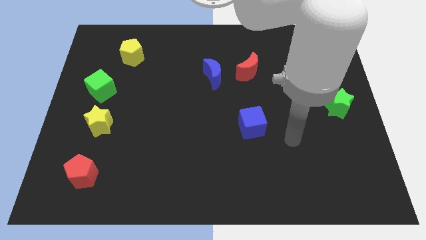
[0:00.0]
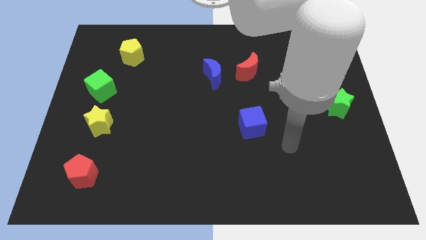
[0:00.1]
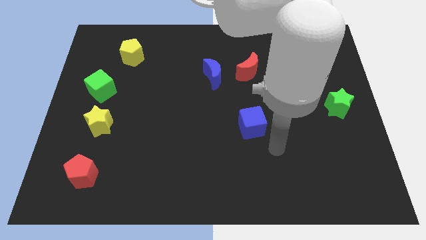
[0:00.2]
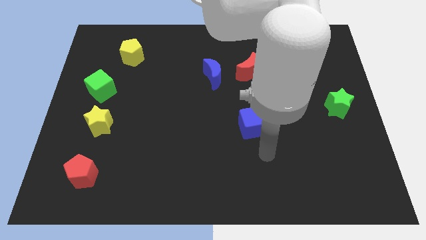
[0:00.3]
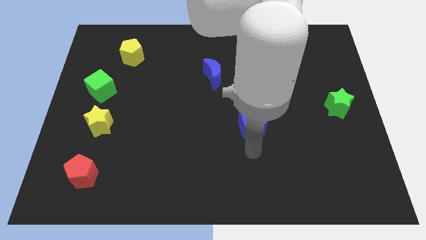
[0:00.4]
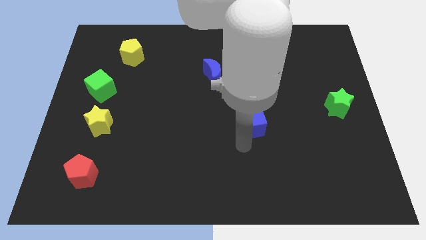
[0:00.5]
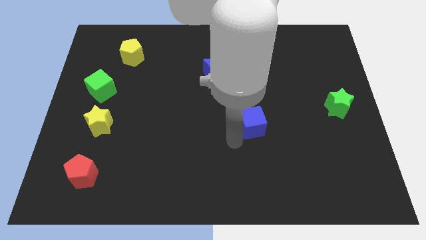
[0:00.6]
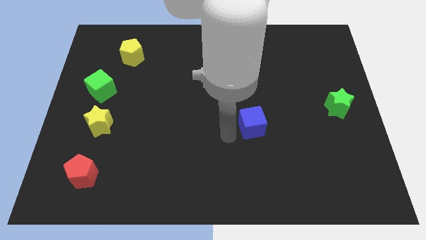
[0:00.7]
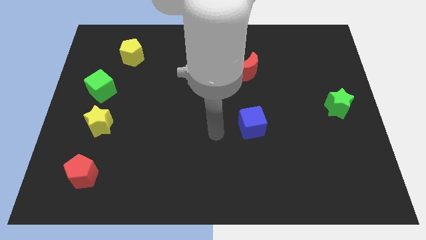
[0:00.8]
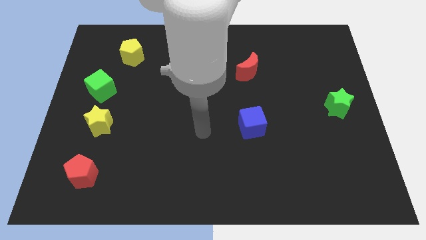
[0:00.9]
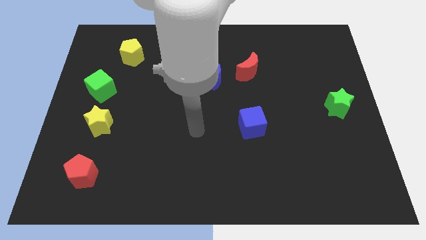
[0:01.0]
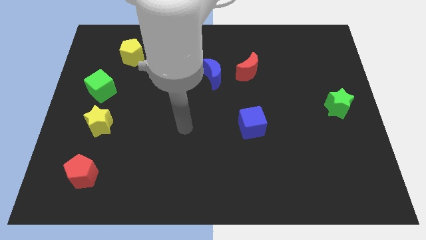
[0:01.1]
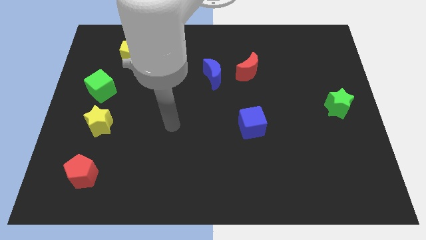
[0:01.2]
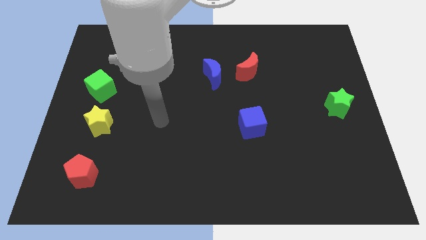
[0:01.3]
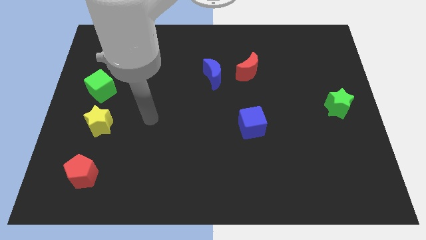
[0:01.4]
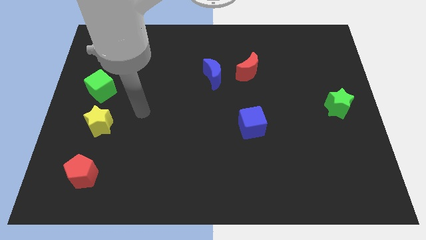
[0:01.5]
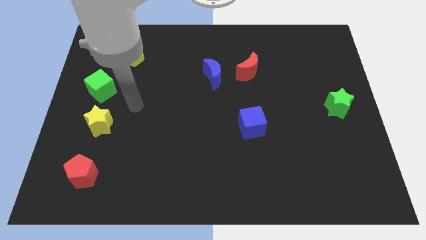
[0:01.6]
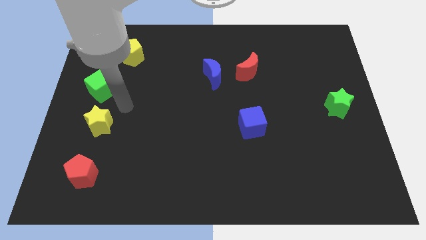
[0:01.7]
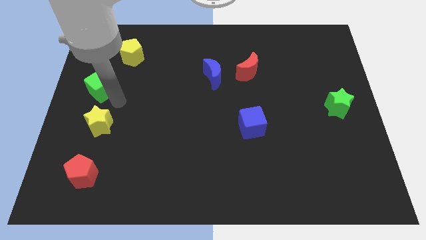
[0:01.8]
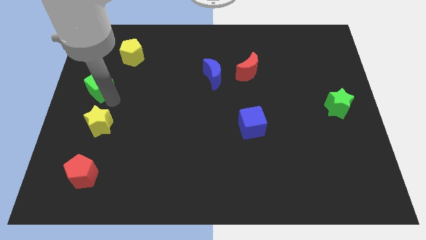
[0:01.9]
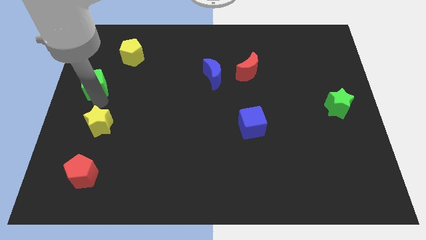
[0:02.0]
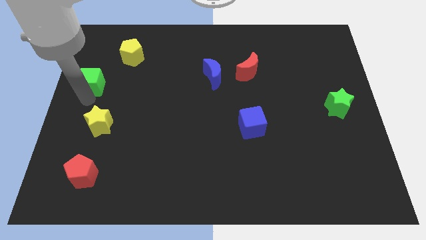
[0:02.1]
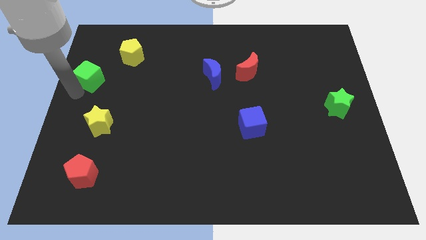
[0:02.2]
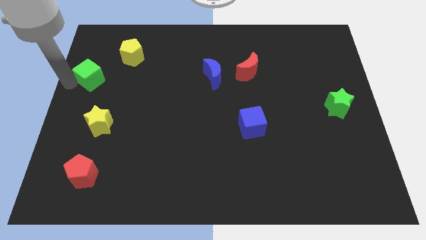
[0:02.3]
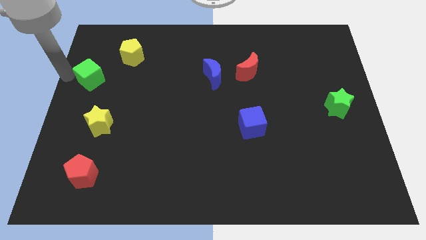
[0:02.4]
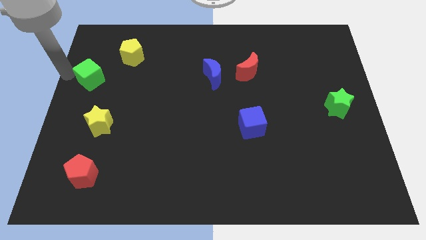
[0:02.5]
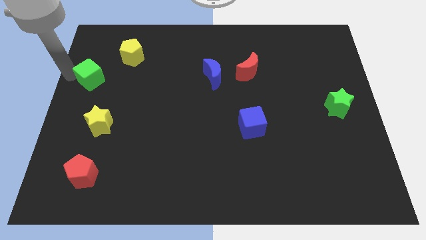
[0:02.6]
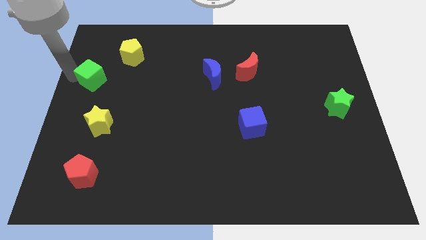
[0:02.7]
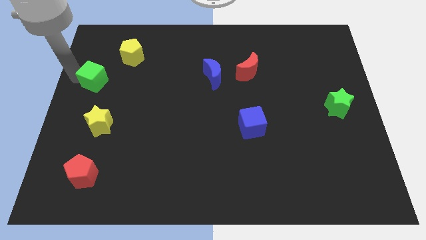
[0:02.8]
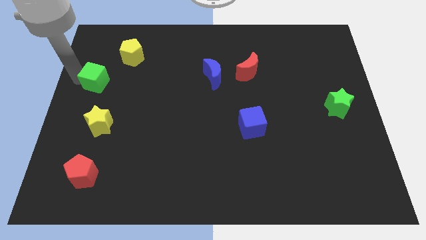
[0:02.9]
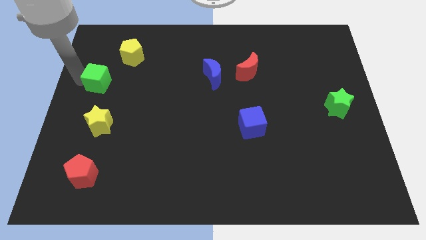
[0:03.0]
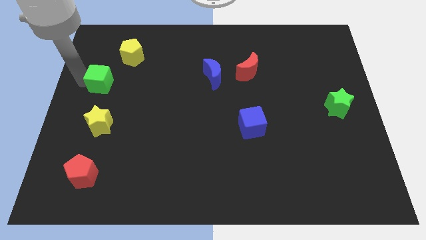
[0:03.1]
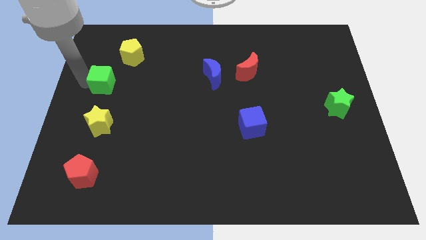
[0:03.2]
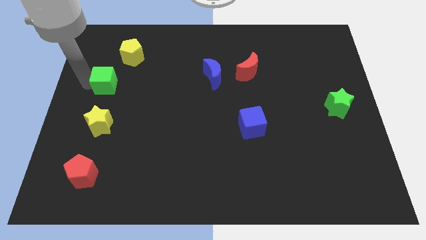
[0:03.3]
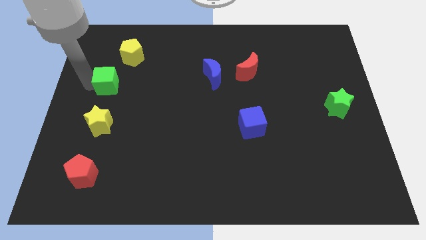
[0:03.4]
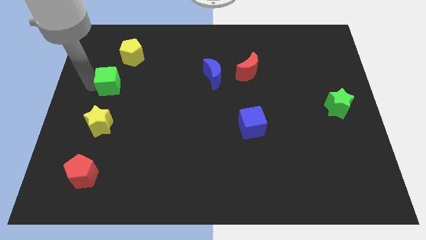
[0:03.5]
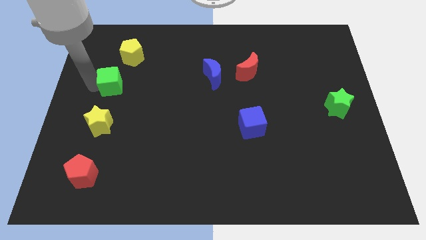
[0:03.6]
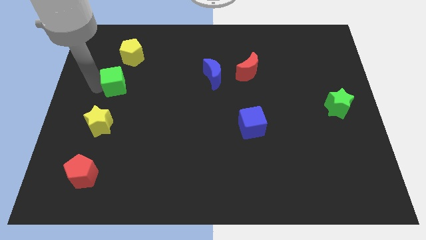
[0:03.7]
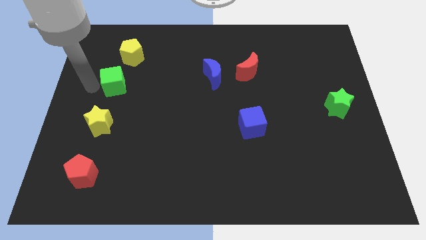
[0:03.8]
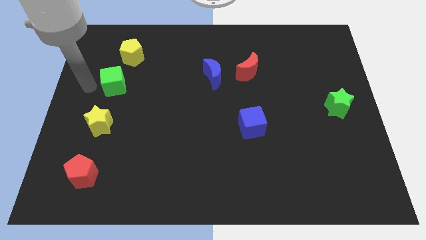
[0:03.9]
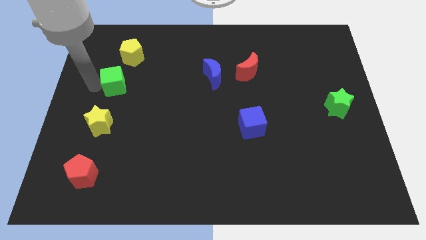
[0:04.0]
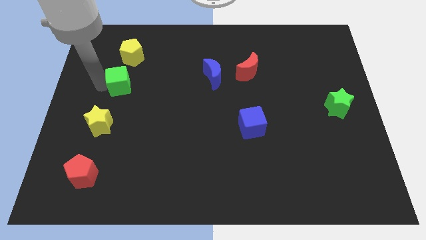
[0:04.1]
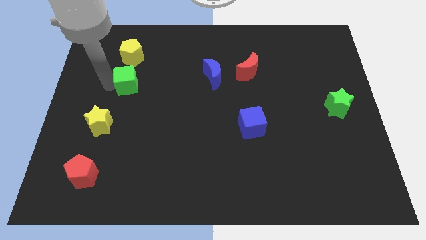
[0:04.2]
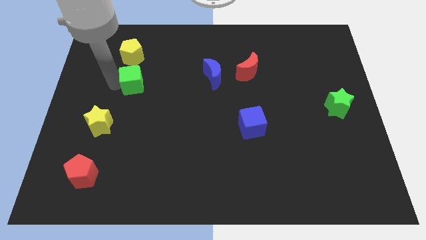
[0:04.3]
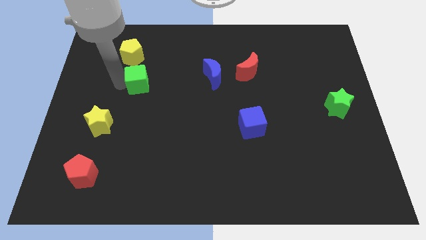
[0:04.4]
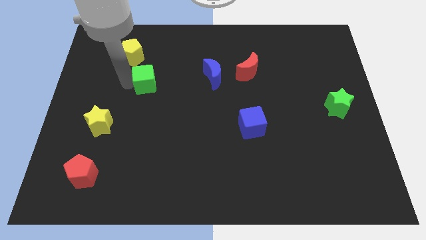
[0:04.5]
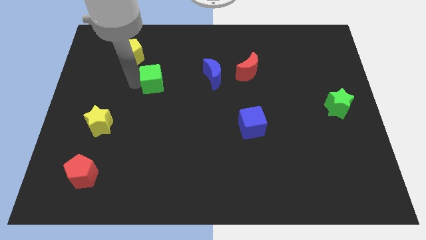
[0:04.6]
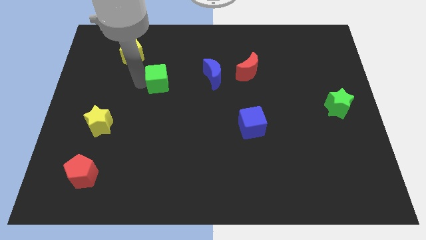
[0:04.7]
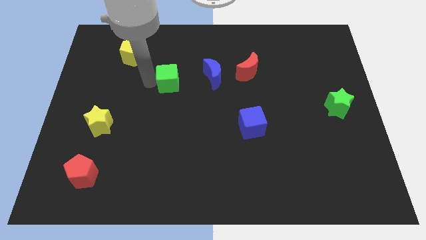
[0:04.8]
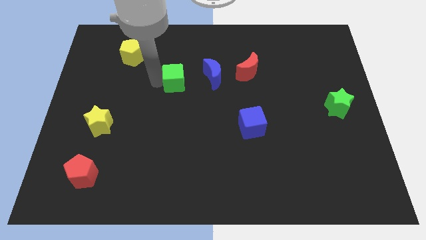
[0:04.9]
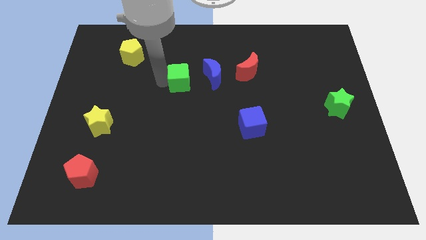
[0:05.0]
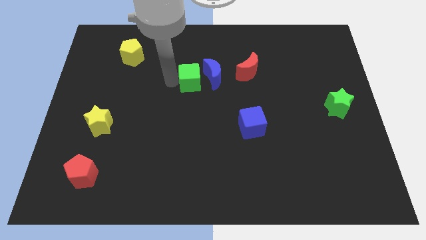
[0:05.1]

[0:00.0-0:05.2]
move the green cube next to the blue moon

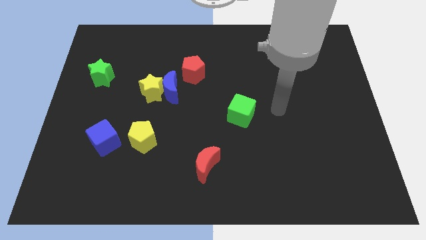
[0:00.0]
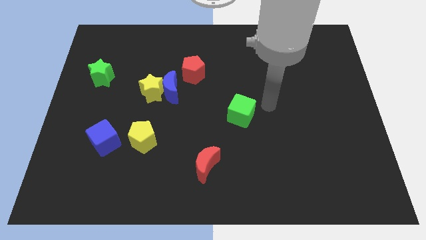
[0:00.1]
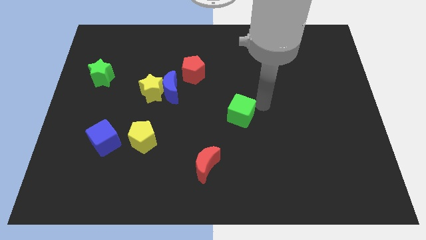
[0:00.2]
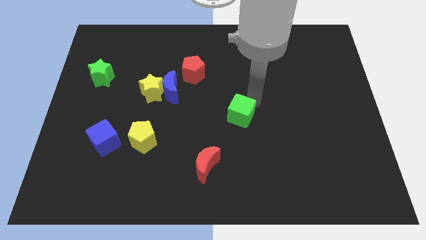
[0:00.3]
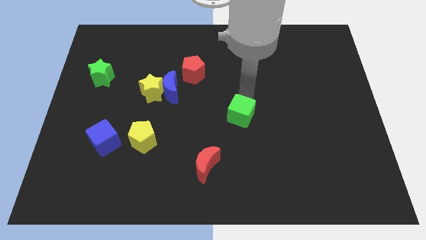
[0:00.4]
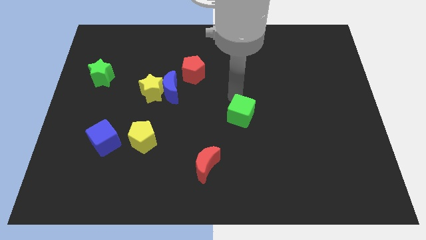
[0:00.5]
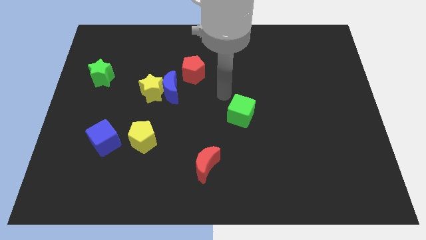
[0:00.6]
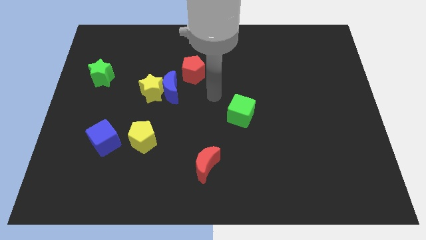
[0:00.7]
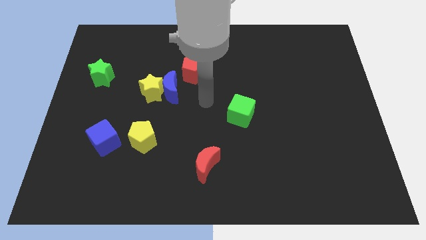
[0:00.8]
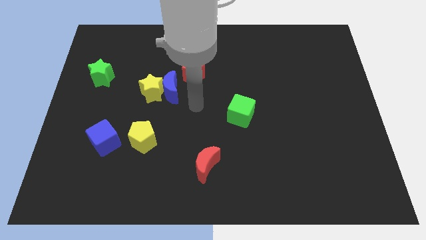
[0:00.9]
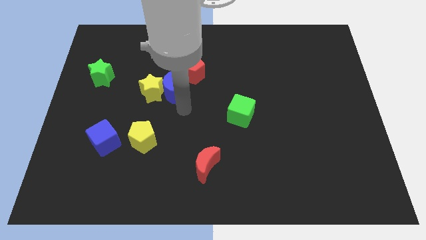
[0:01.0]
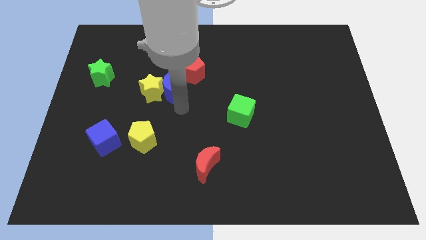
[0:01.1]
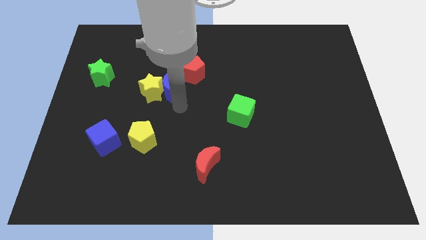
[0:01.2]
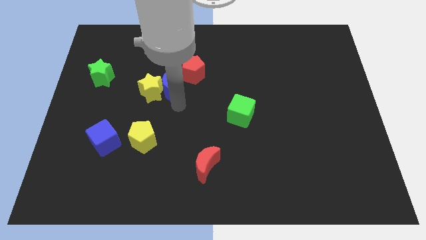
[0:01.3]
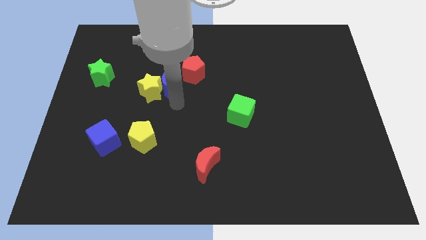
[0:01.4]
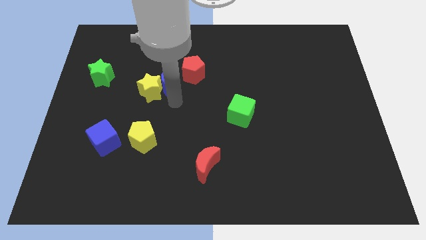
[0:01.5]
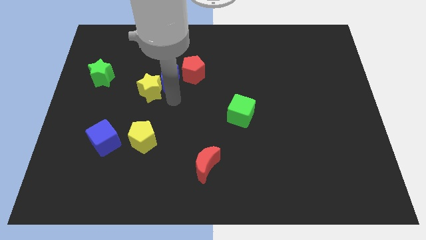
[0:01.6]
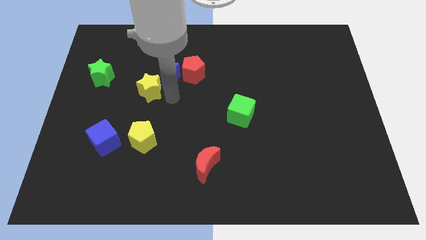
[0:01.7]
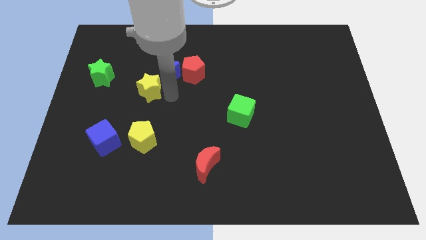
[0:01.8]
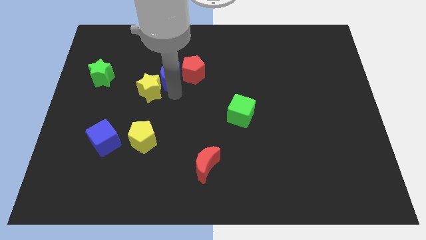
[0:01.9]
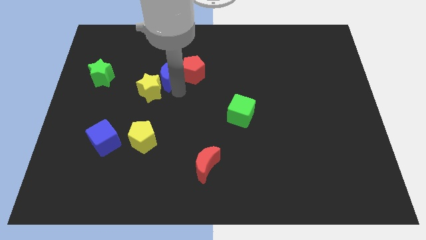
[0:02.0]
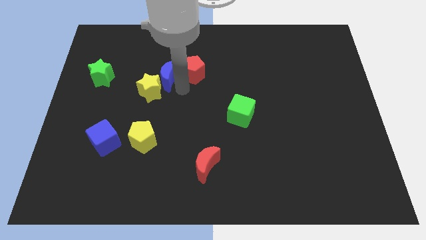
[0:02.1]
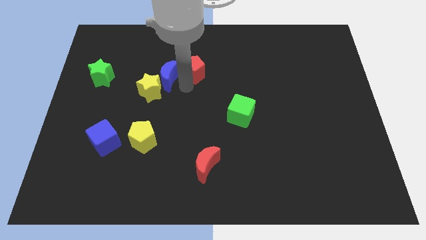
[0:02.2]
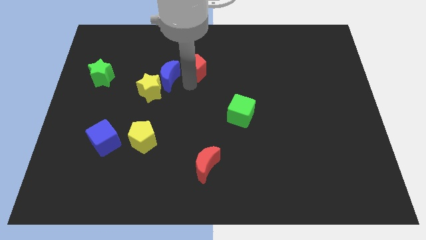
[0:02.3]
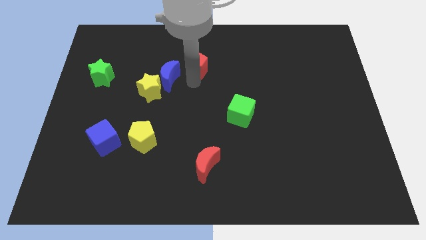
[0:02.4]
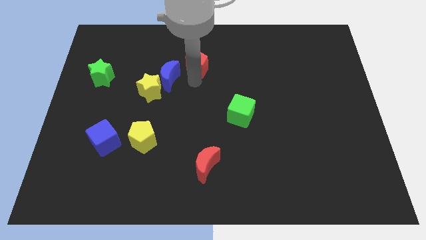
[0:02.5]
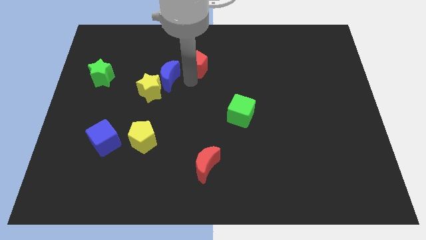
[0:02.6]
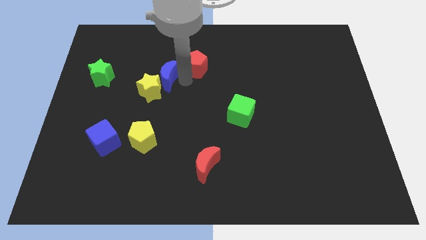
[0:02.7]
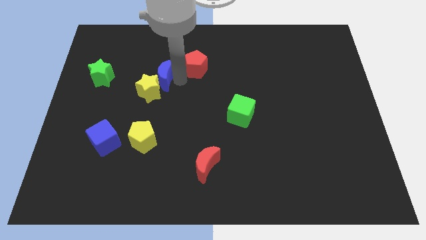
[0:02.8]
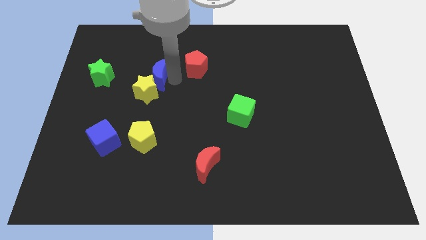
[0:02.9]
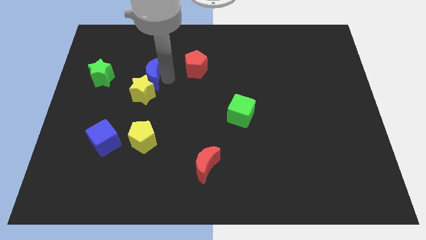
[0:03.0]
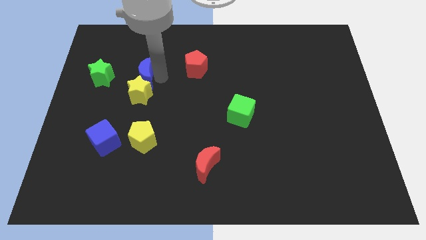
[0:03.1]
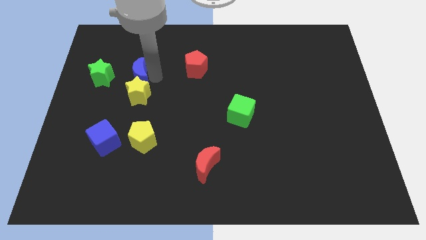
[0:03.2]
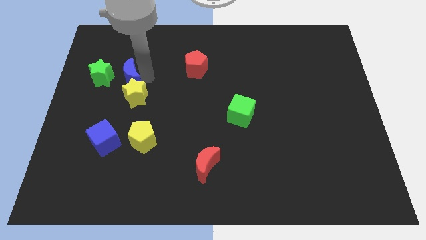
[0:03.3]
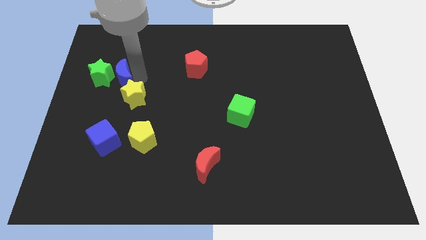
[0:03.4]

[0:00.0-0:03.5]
slide the blue moon next to the green star
